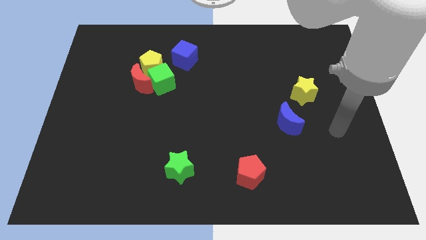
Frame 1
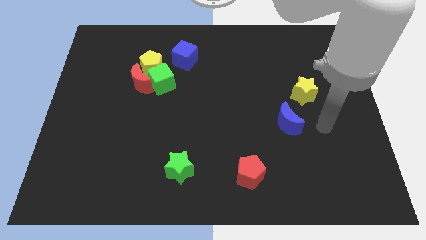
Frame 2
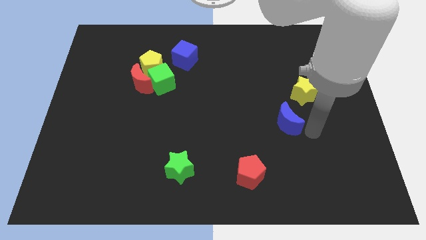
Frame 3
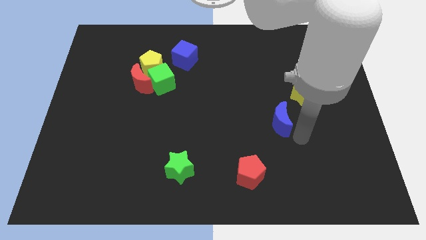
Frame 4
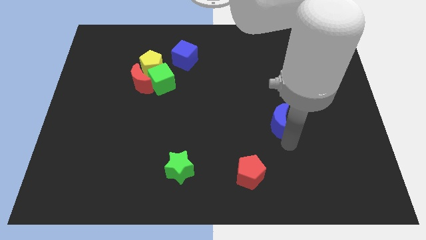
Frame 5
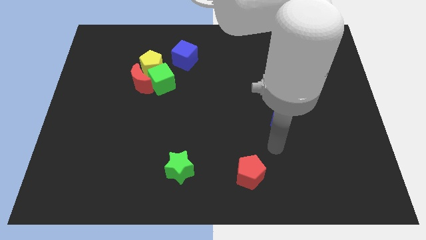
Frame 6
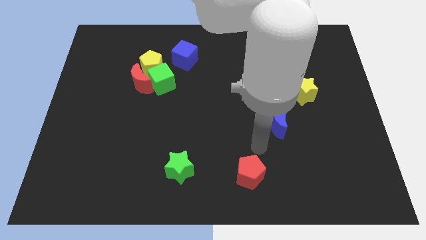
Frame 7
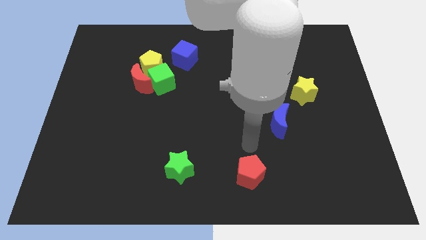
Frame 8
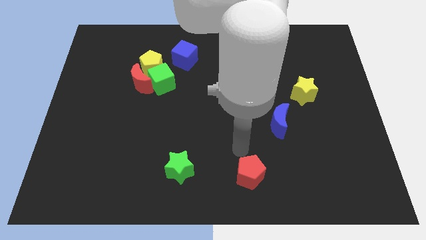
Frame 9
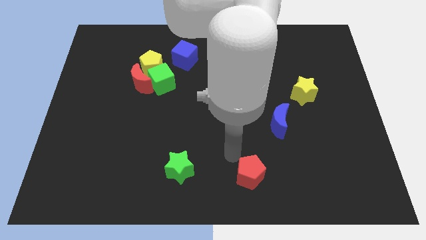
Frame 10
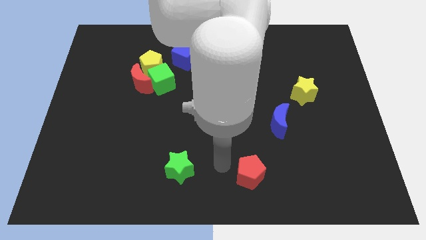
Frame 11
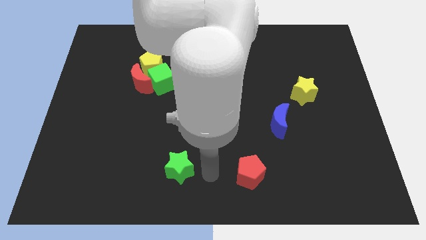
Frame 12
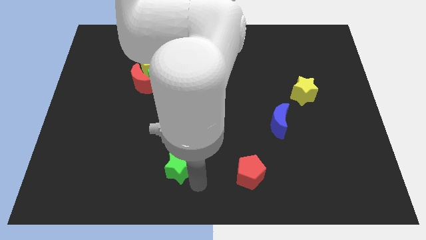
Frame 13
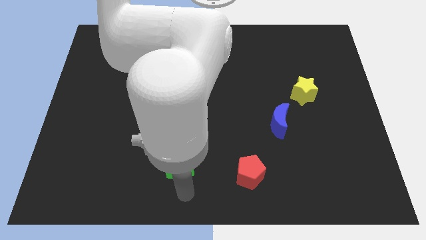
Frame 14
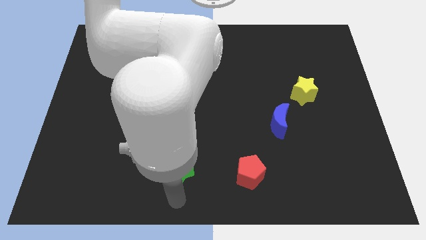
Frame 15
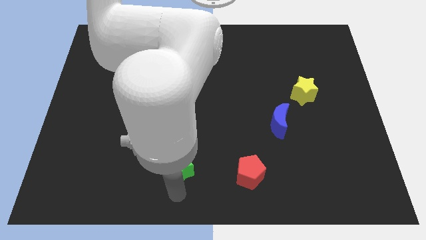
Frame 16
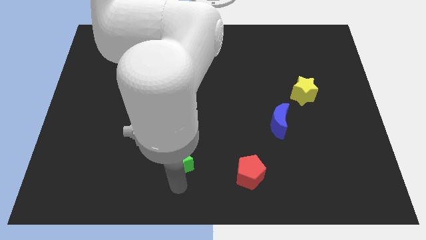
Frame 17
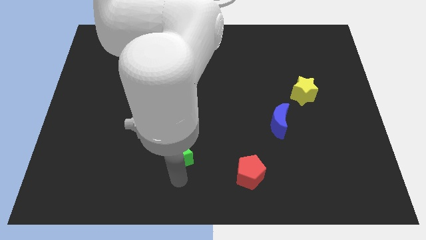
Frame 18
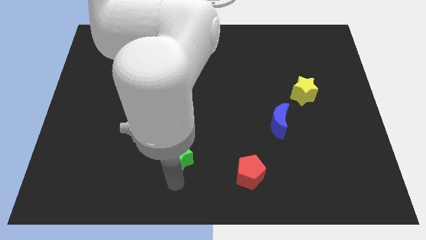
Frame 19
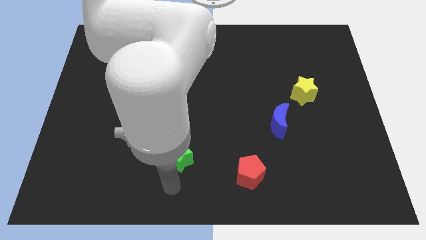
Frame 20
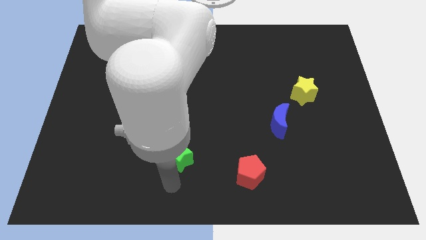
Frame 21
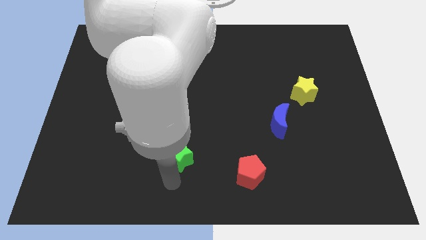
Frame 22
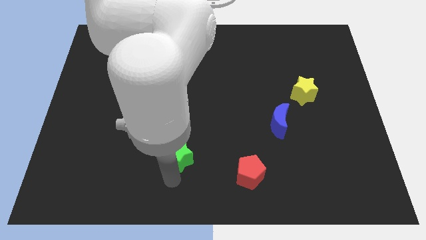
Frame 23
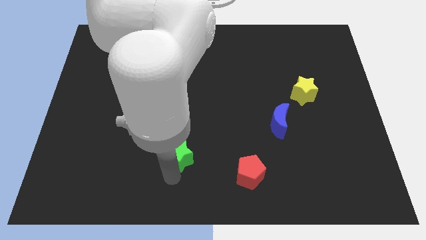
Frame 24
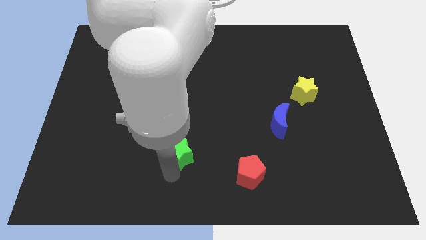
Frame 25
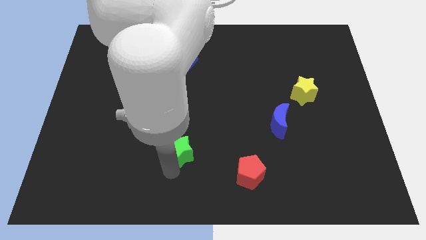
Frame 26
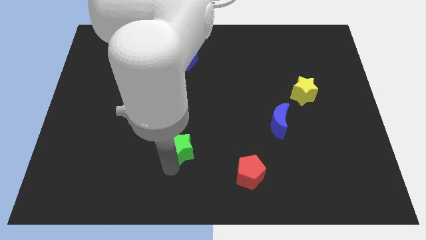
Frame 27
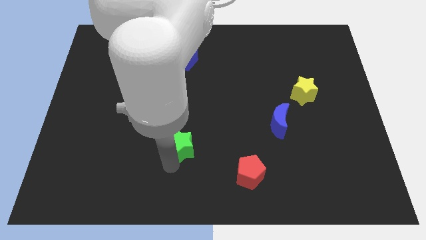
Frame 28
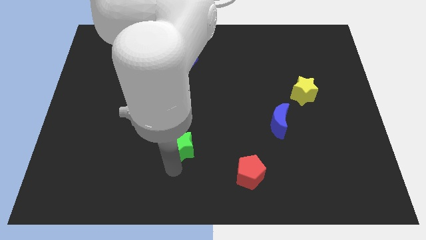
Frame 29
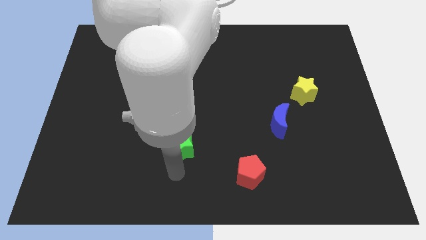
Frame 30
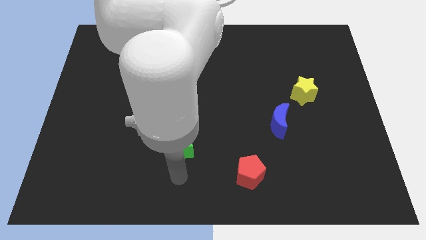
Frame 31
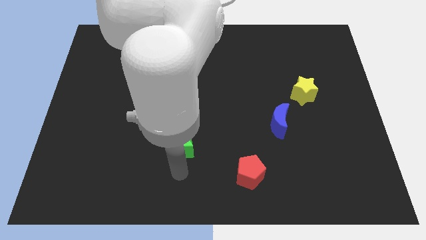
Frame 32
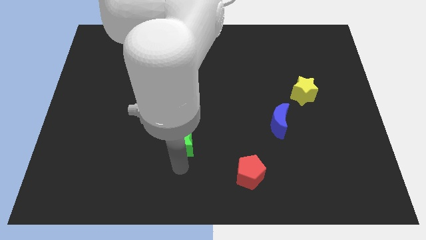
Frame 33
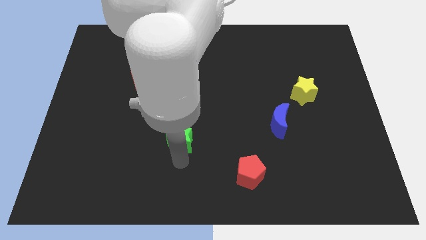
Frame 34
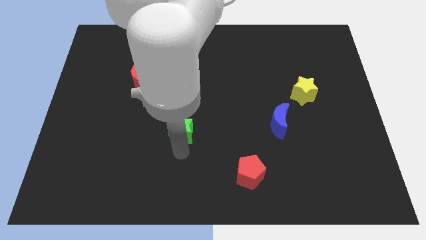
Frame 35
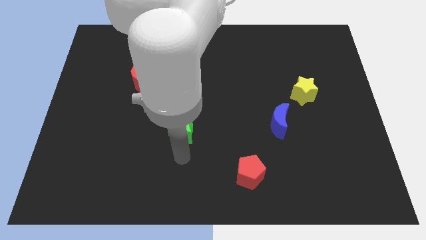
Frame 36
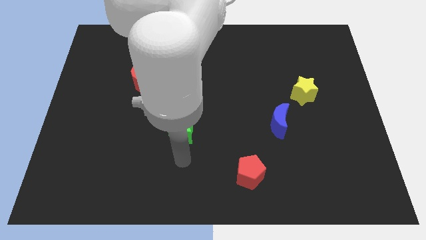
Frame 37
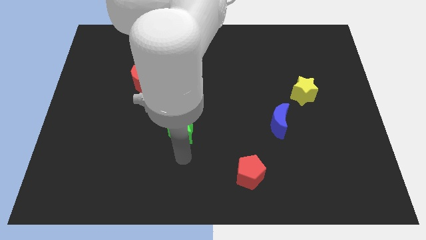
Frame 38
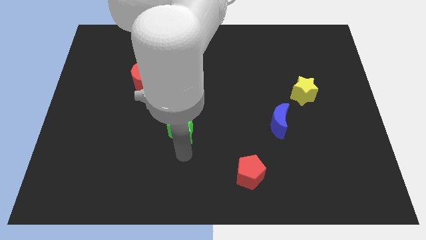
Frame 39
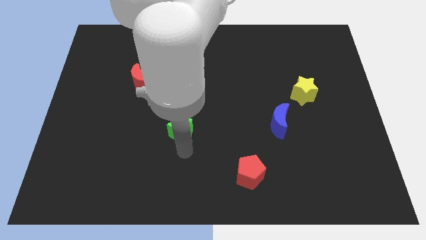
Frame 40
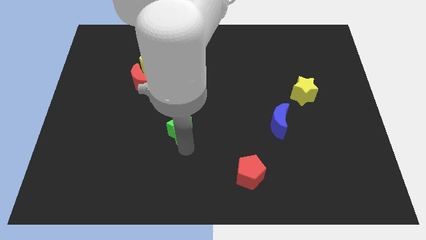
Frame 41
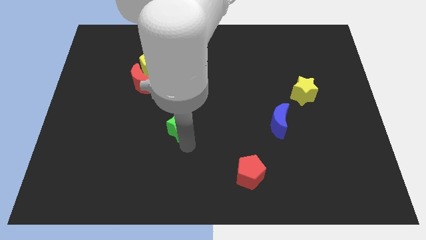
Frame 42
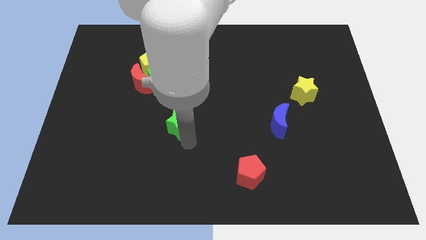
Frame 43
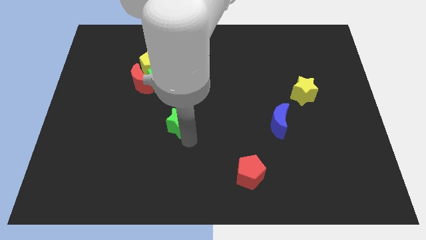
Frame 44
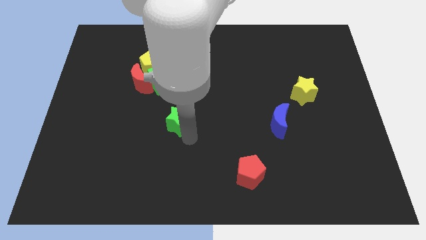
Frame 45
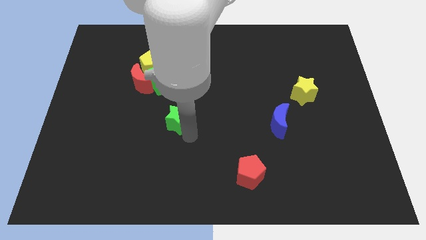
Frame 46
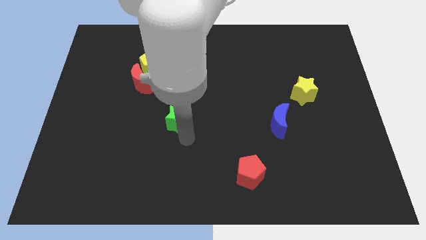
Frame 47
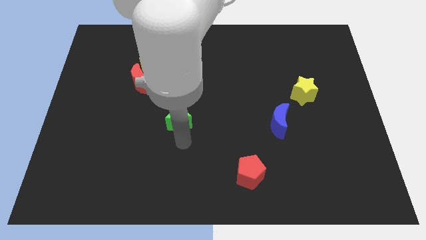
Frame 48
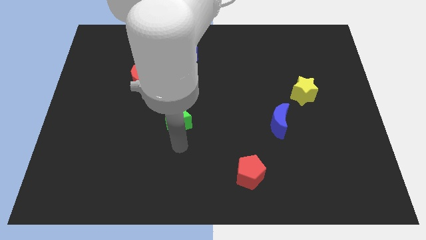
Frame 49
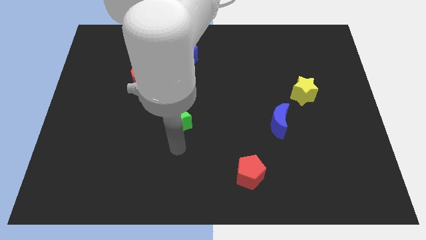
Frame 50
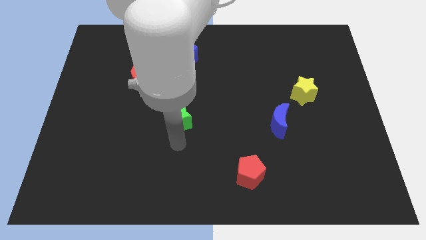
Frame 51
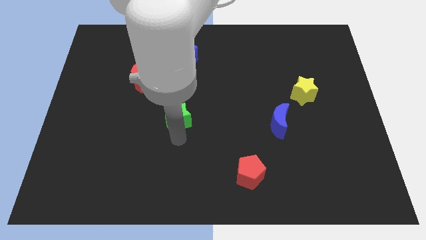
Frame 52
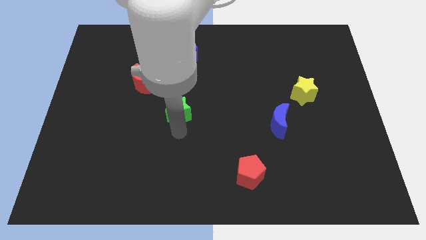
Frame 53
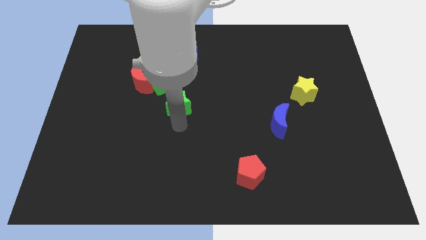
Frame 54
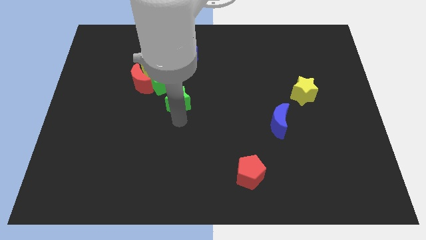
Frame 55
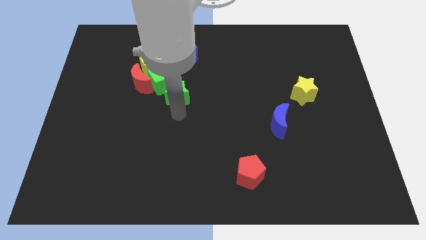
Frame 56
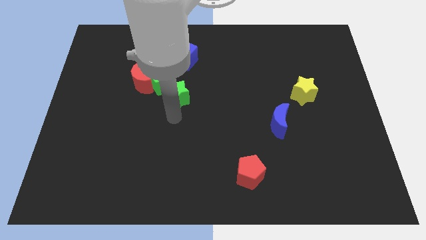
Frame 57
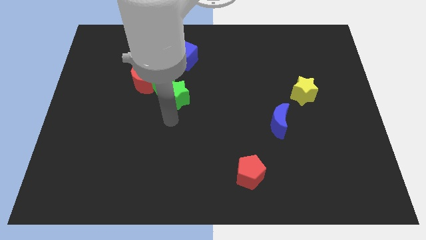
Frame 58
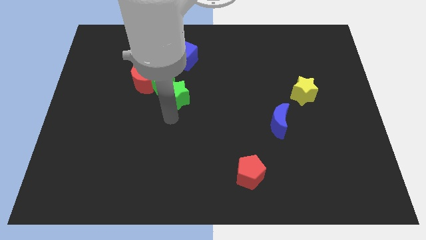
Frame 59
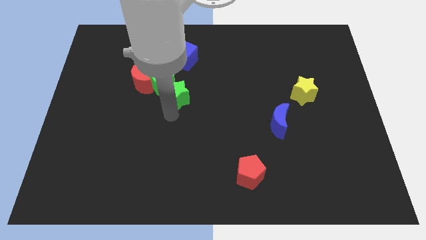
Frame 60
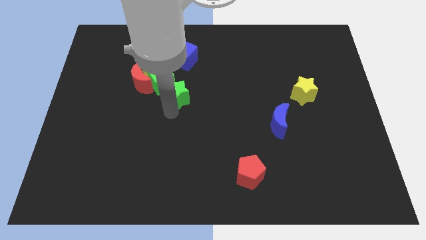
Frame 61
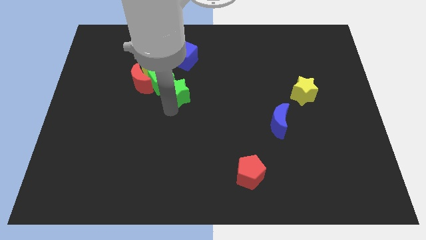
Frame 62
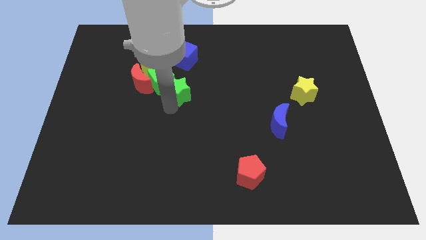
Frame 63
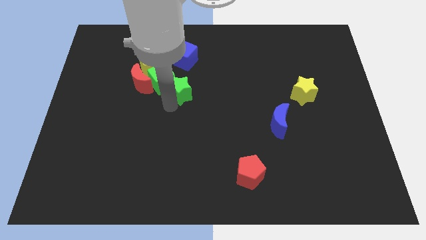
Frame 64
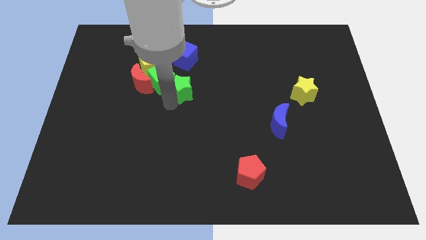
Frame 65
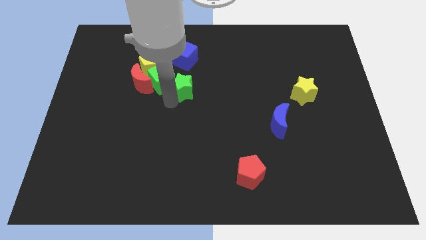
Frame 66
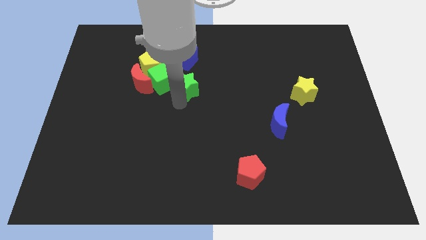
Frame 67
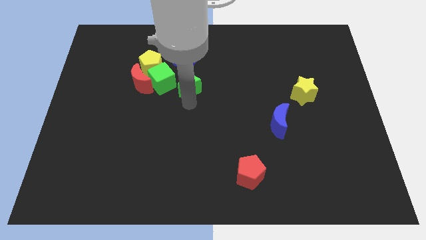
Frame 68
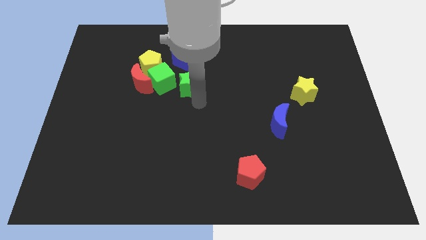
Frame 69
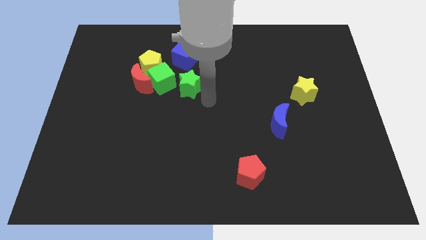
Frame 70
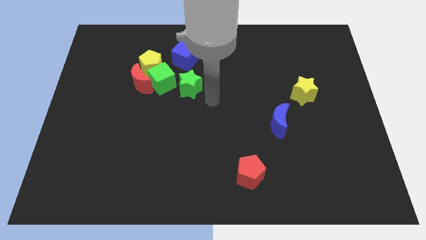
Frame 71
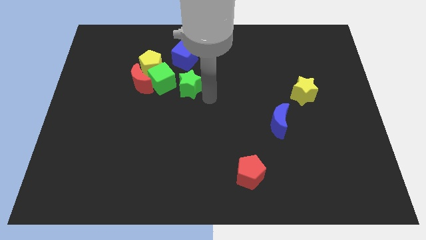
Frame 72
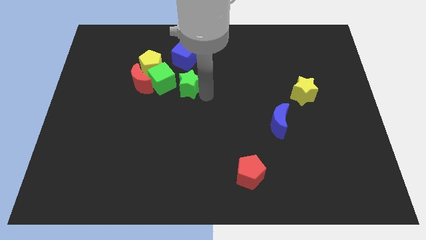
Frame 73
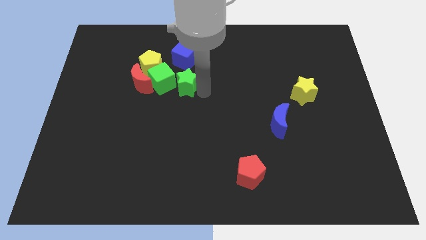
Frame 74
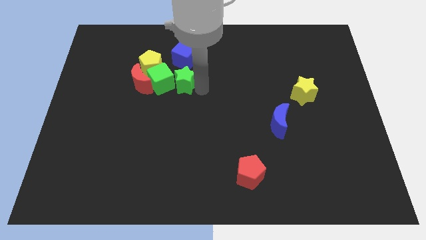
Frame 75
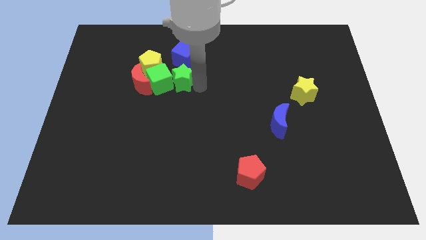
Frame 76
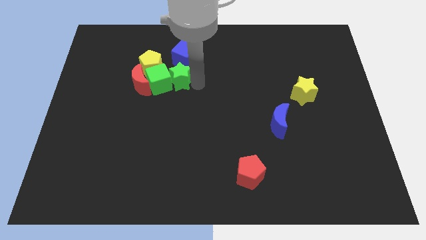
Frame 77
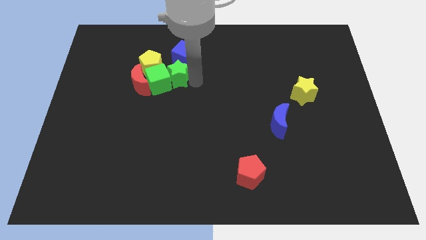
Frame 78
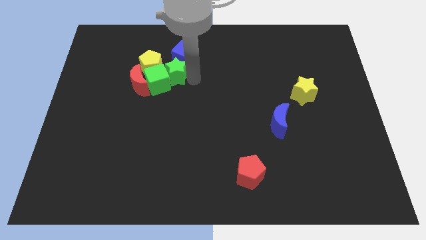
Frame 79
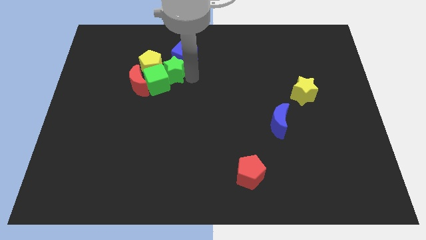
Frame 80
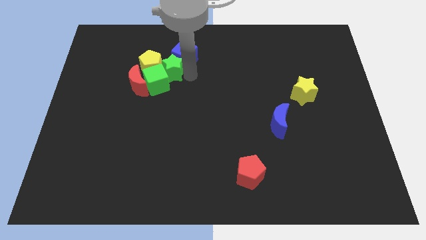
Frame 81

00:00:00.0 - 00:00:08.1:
slide the green star to the yellow pentagon
